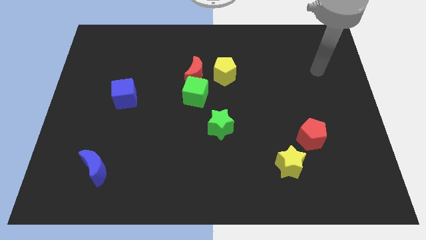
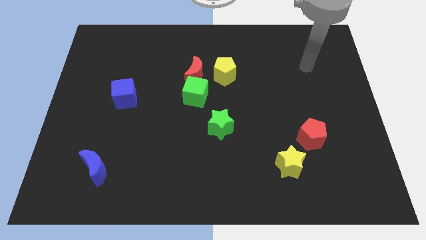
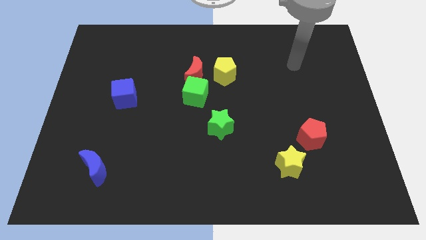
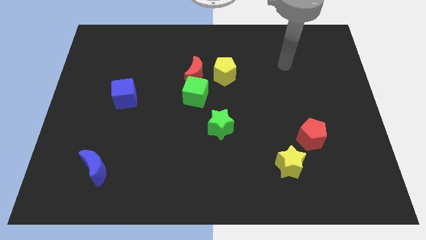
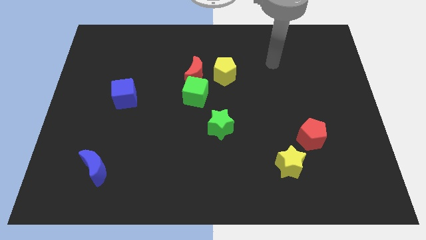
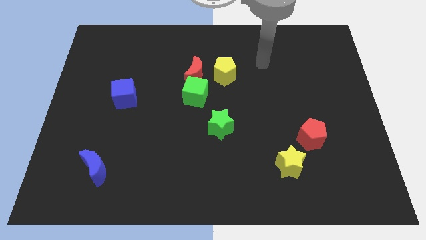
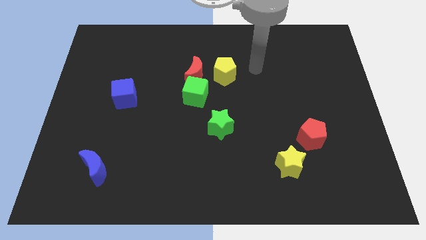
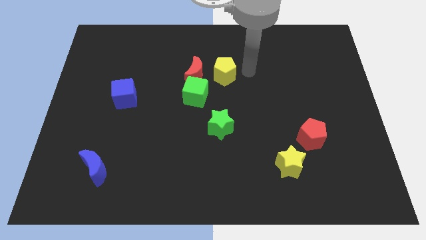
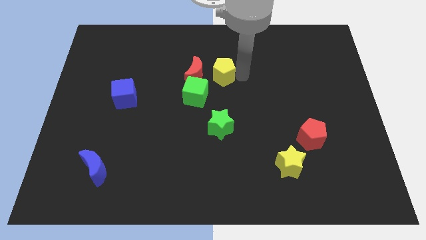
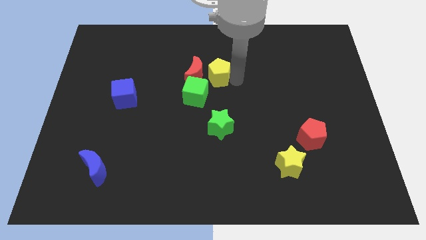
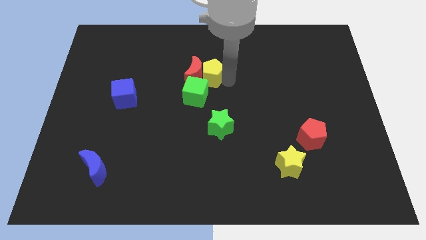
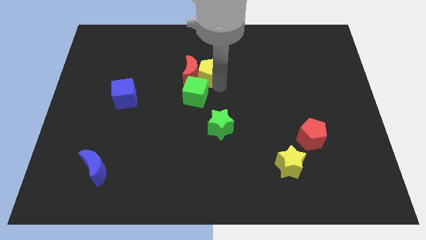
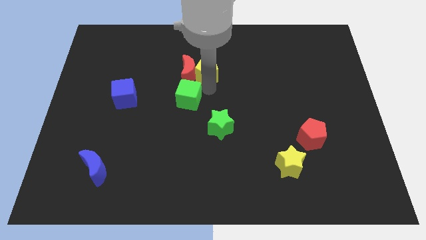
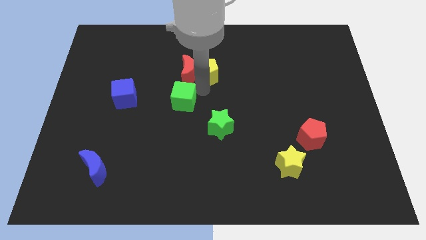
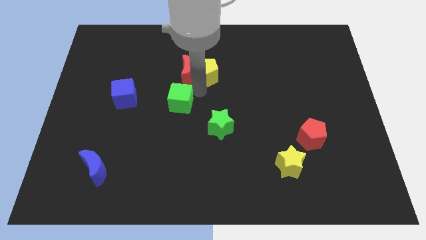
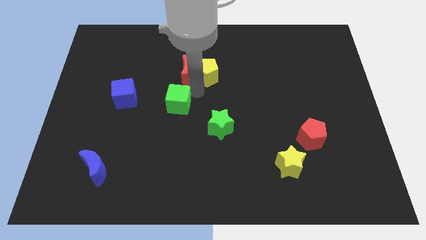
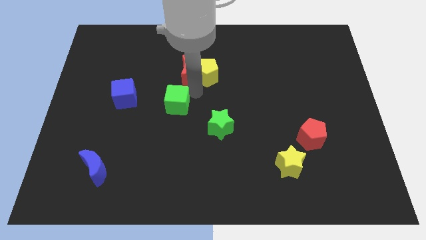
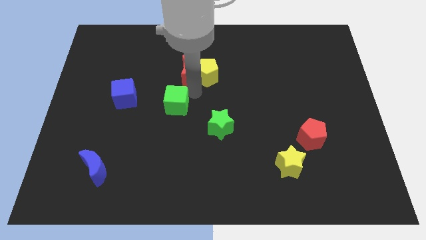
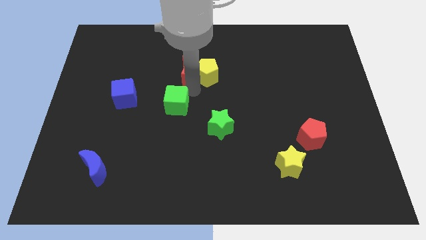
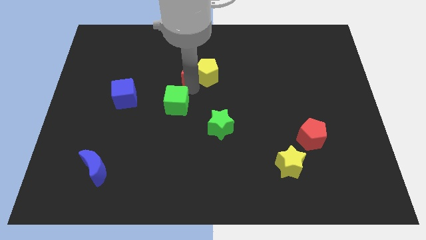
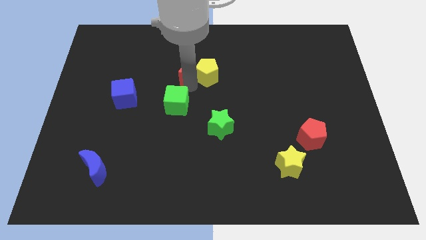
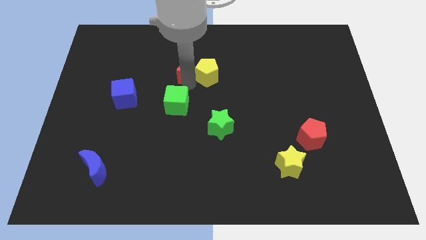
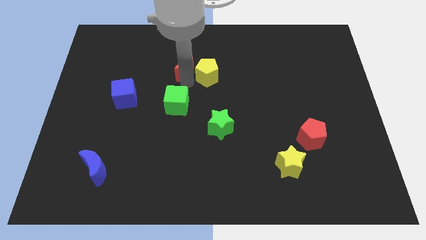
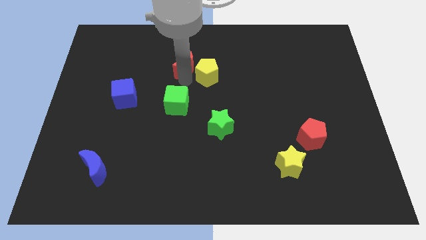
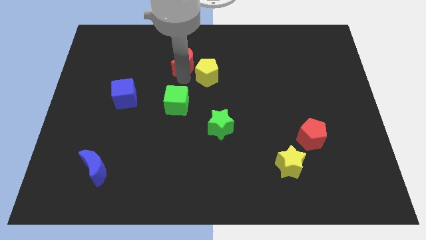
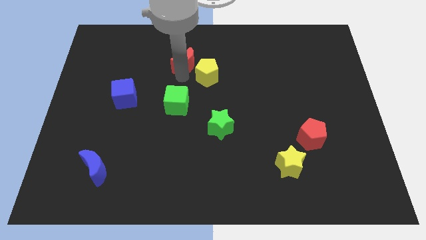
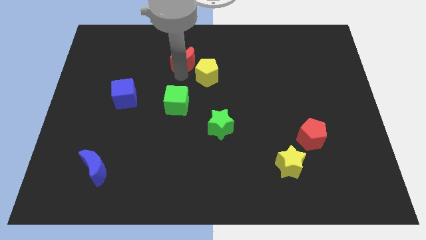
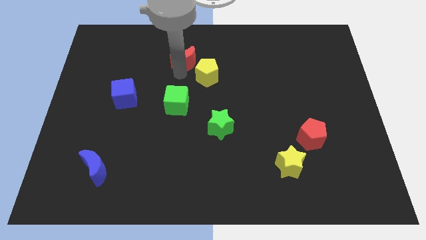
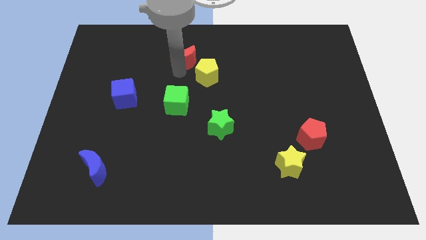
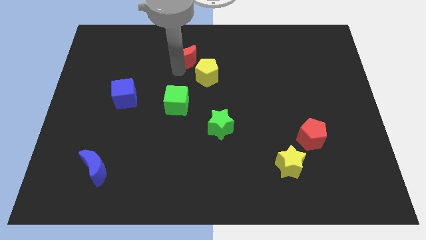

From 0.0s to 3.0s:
pull the red moon apart from the green cube and yellow pentagon

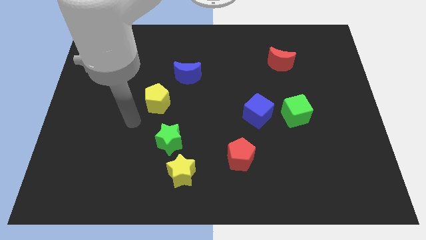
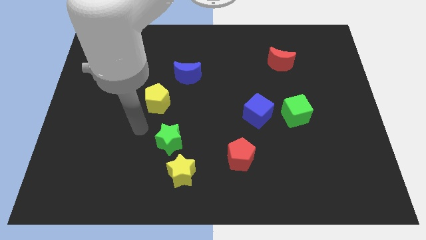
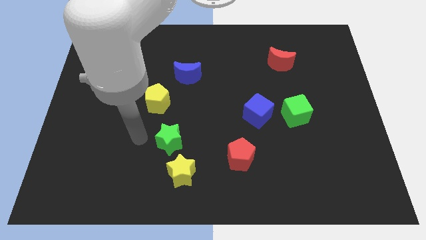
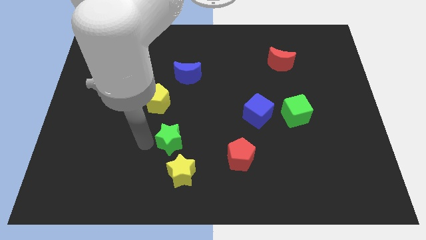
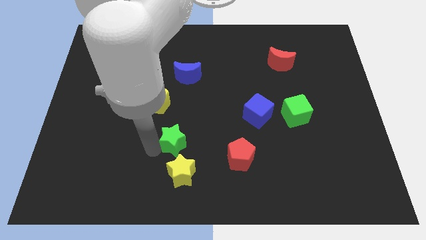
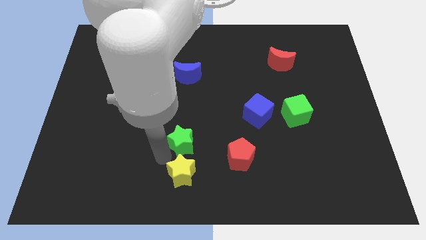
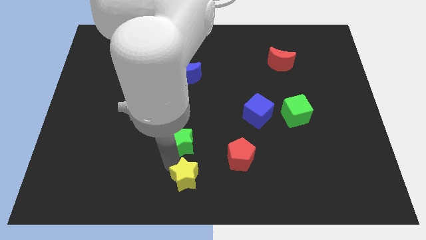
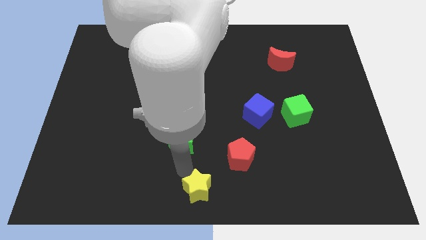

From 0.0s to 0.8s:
move the green star away from the yellow star

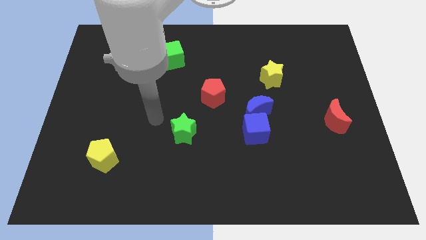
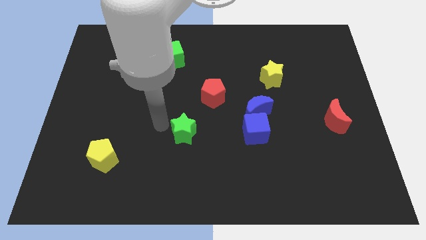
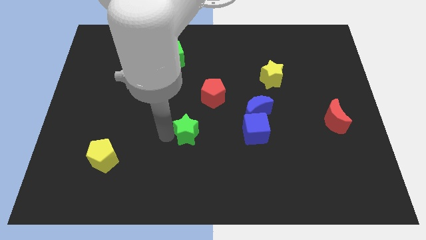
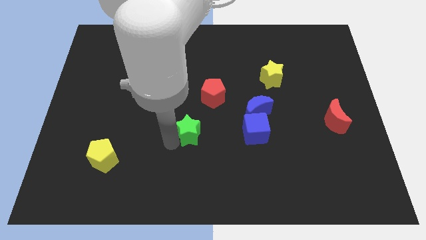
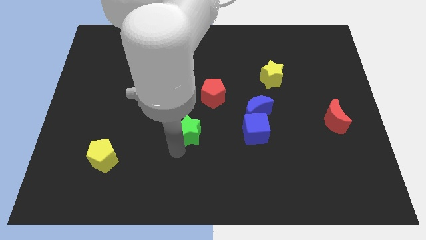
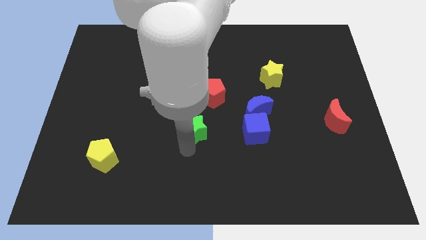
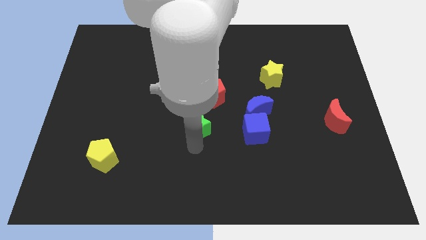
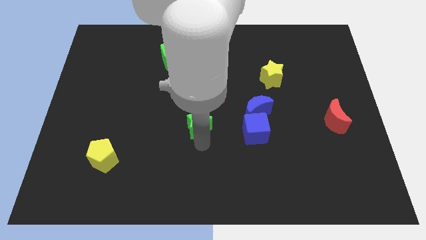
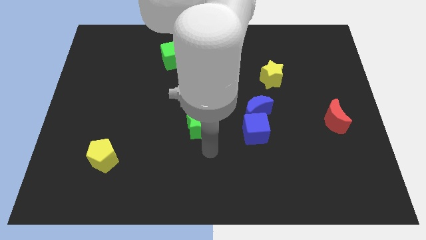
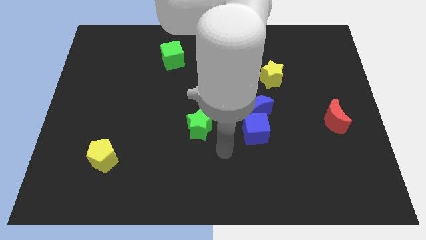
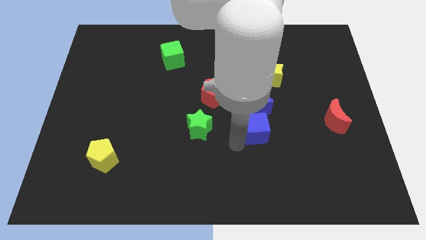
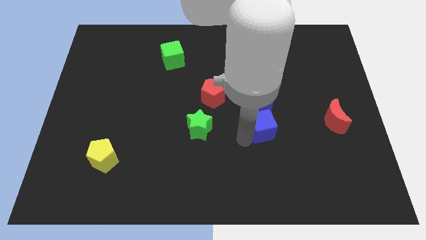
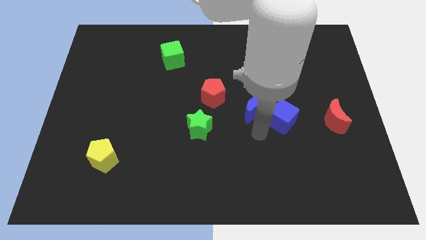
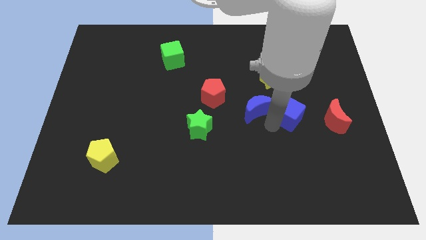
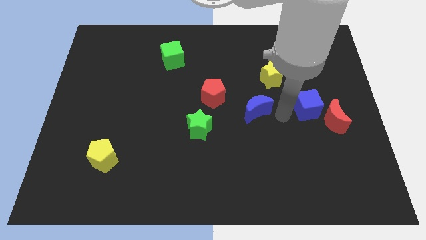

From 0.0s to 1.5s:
move the blue moon away from the blue cube

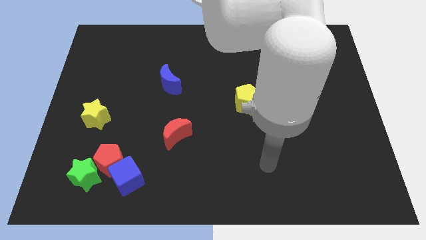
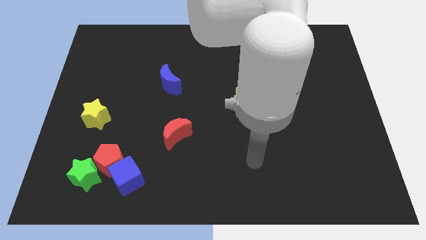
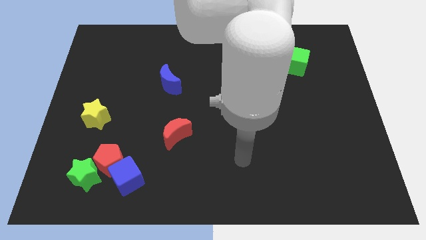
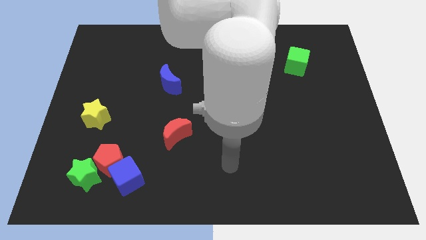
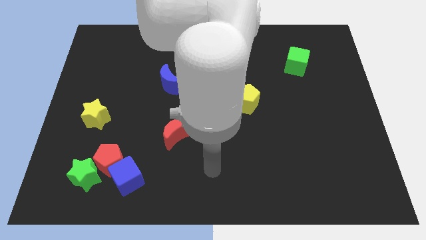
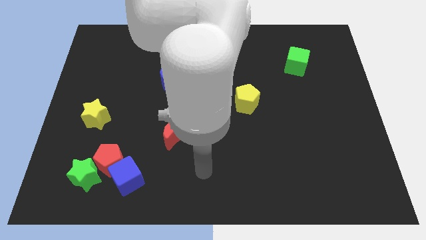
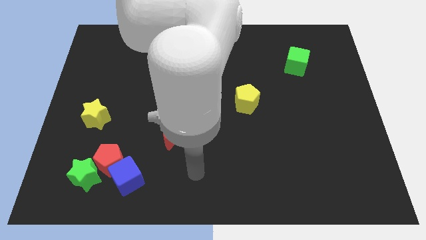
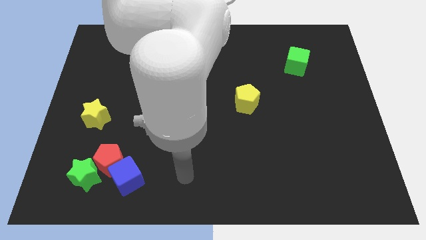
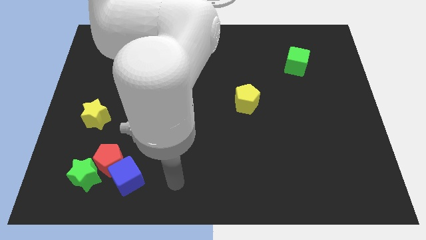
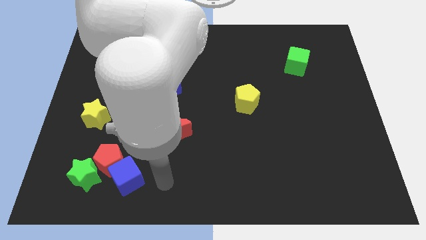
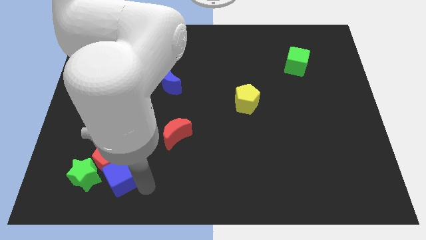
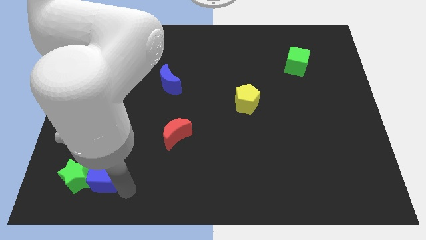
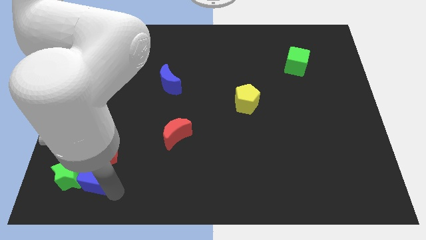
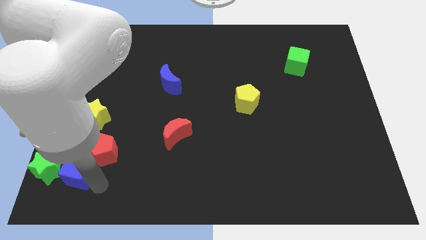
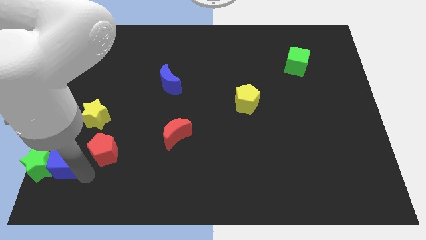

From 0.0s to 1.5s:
pull the red pentagon apart from the green star and blue cube

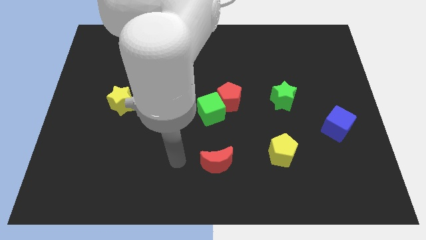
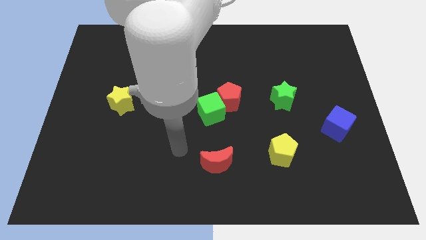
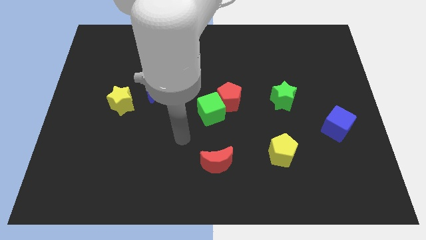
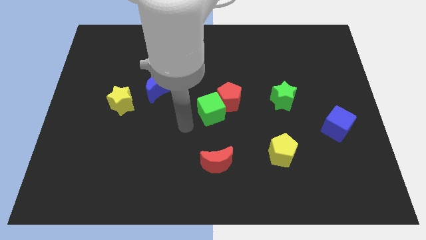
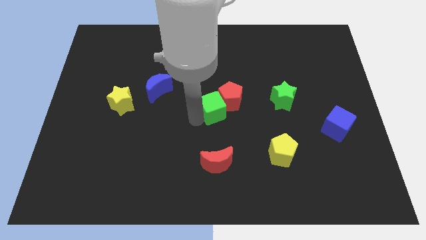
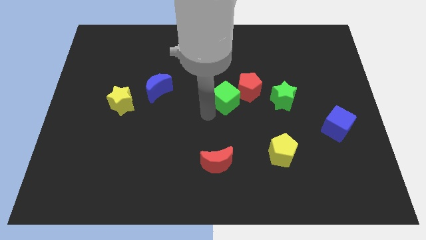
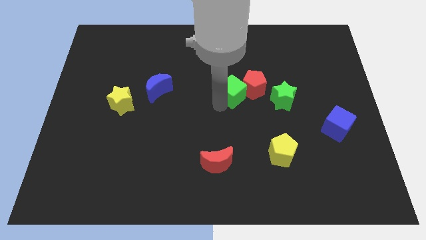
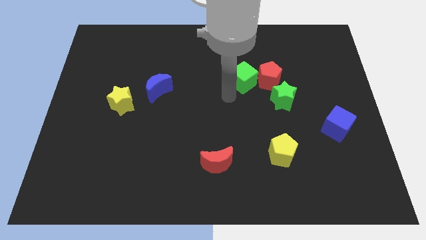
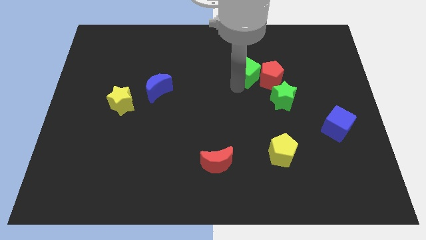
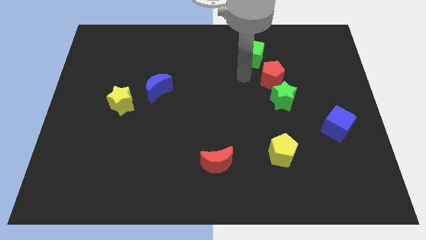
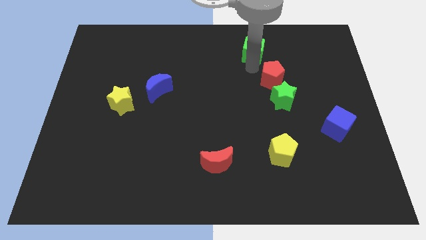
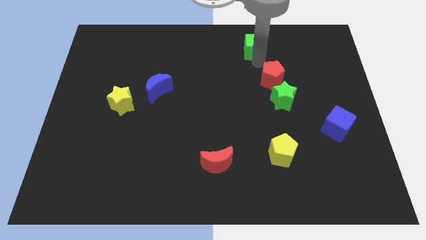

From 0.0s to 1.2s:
separate the red pentagon from the green cube

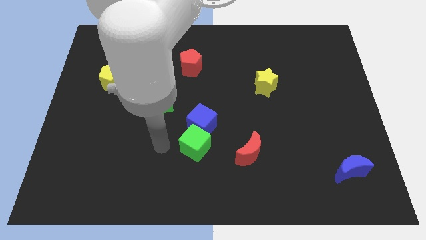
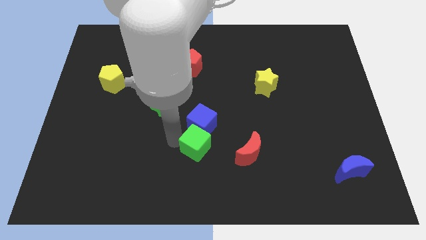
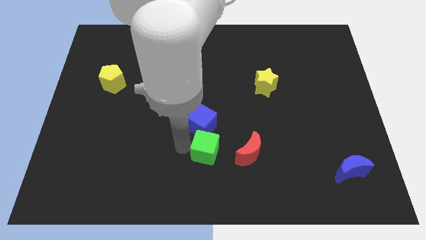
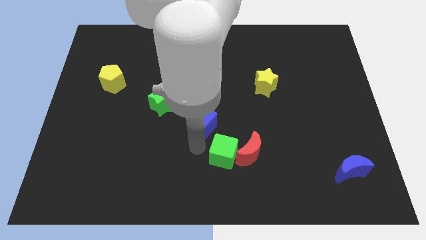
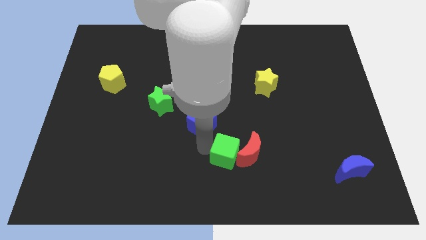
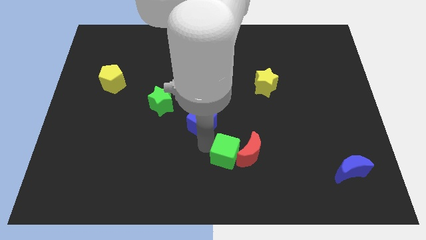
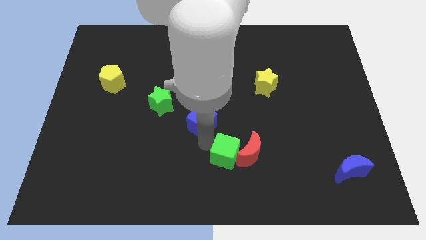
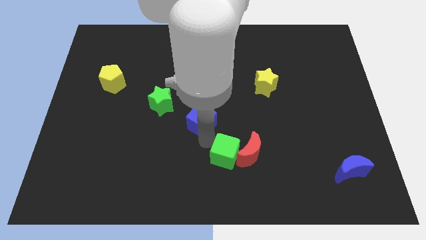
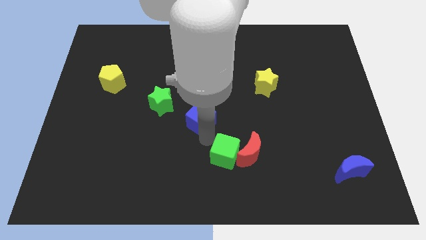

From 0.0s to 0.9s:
separate the blue cube from the green cube

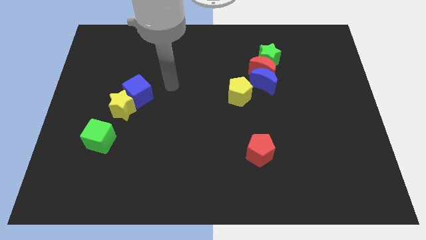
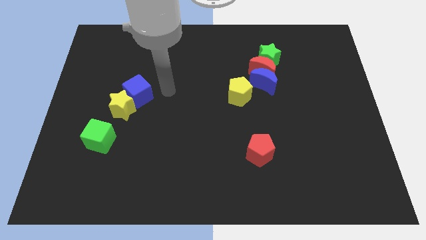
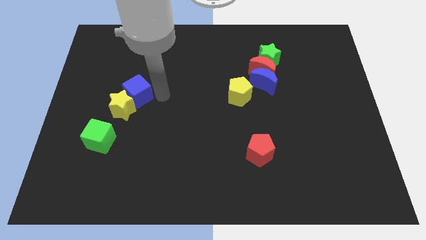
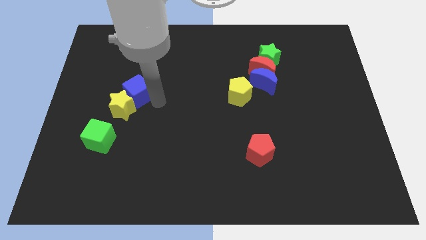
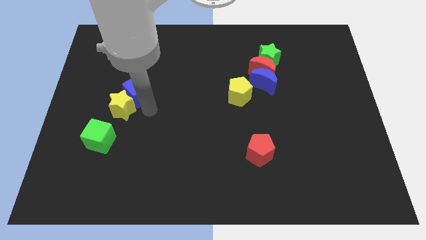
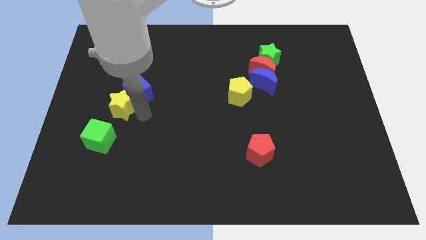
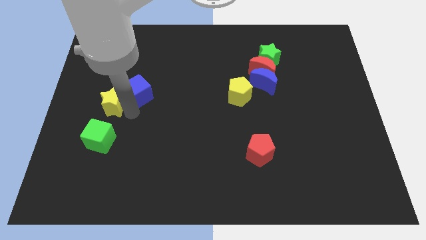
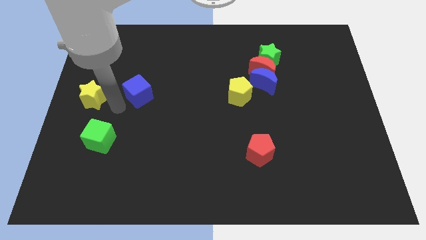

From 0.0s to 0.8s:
pull the blue cube apart from the yellow star
